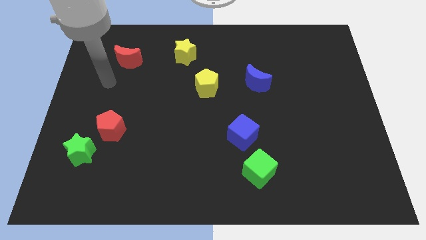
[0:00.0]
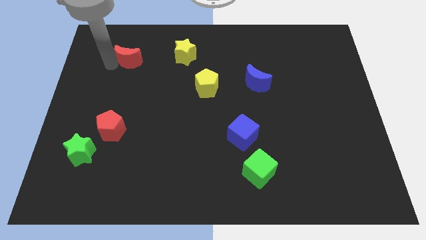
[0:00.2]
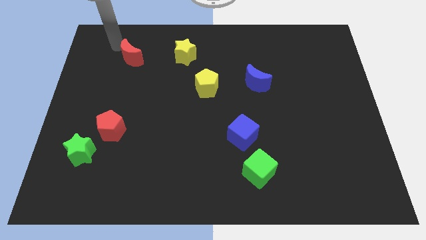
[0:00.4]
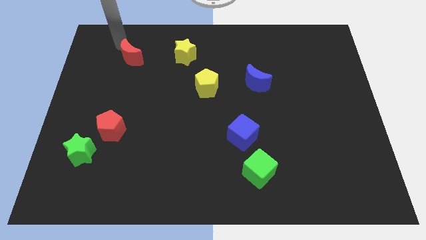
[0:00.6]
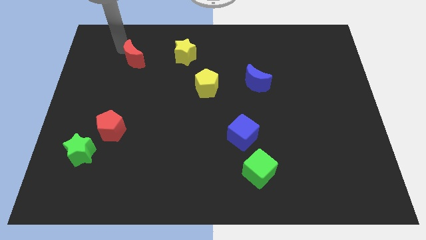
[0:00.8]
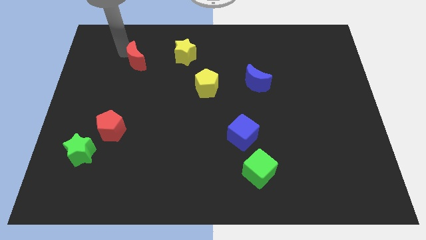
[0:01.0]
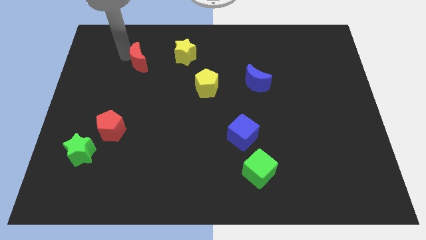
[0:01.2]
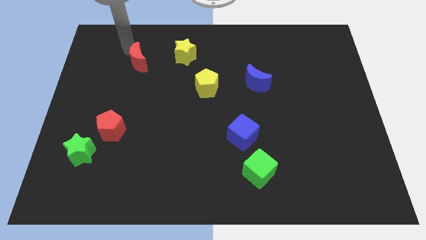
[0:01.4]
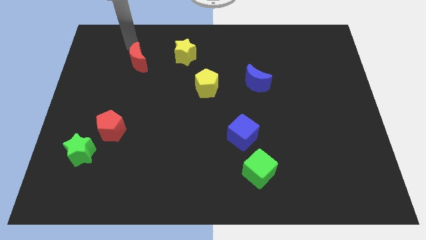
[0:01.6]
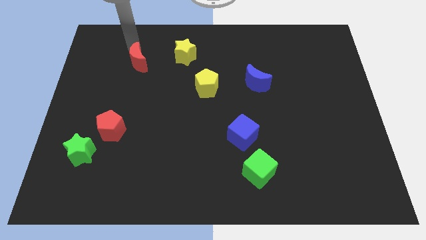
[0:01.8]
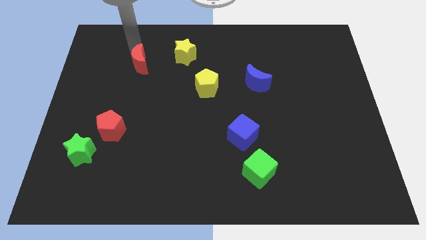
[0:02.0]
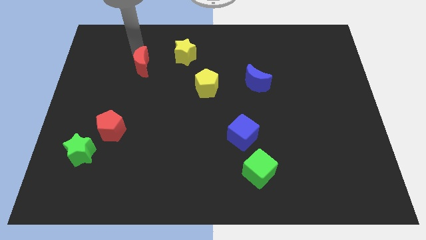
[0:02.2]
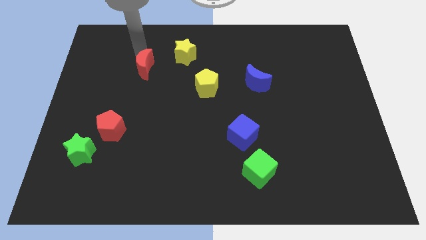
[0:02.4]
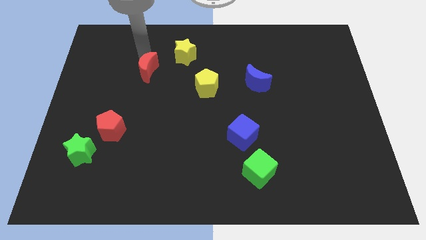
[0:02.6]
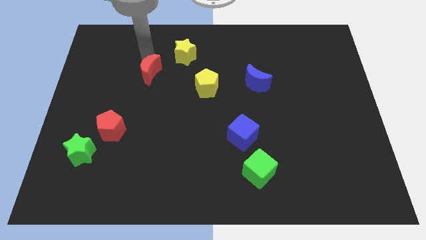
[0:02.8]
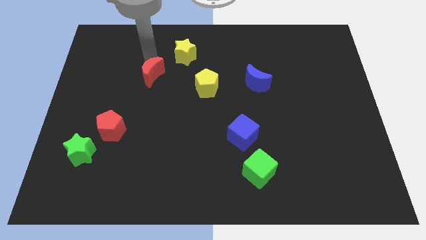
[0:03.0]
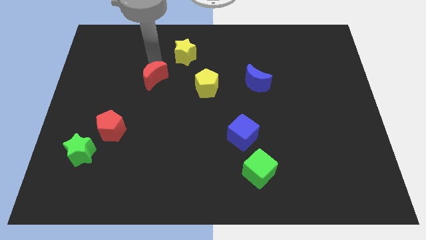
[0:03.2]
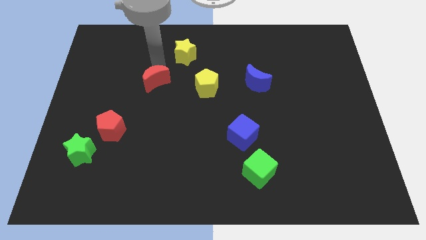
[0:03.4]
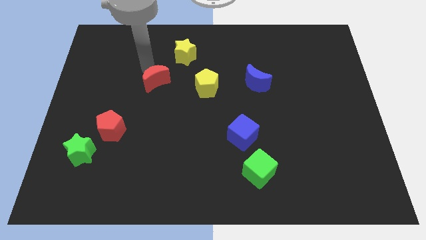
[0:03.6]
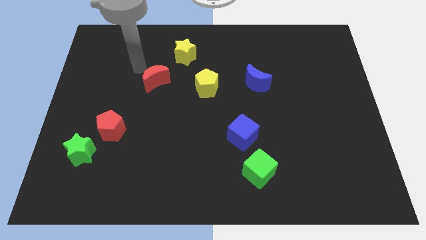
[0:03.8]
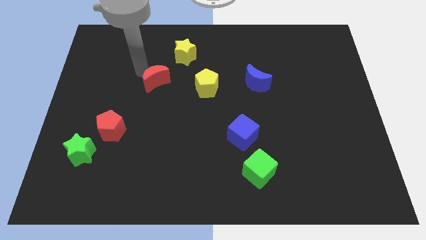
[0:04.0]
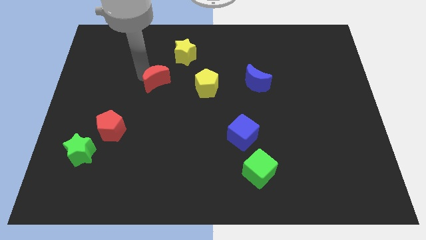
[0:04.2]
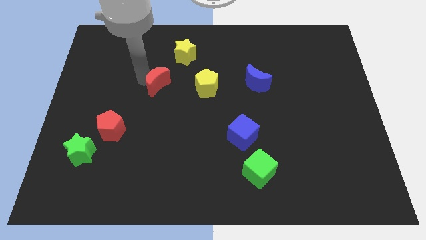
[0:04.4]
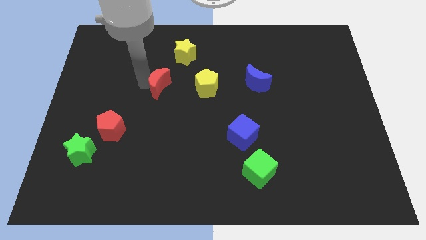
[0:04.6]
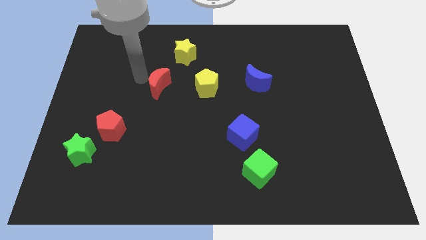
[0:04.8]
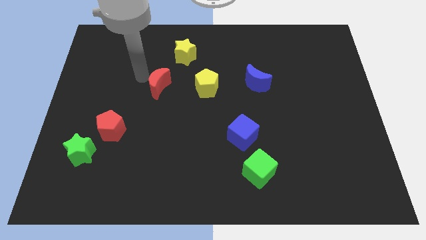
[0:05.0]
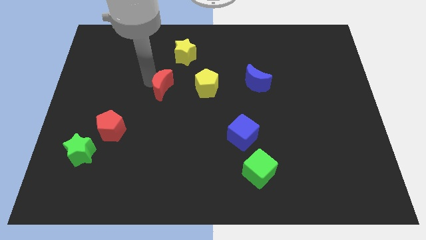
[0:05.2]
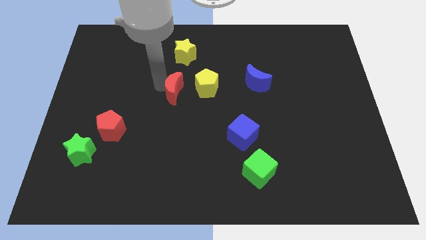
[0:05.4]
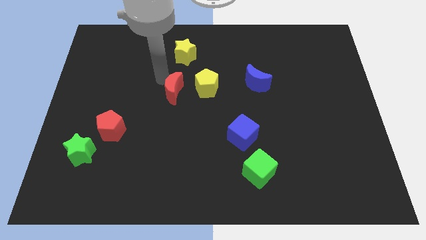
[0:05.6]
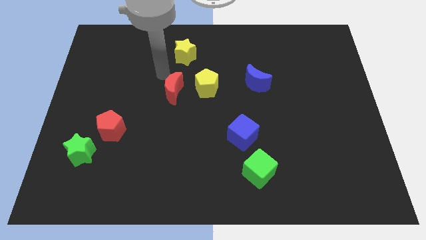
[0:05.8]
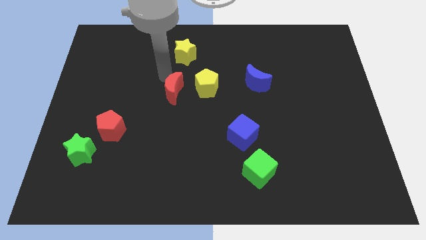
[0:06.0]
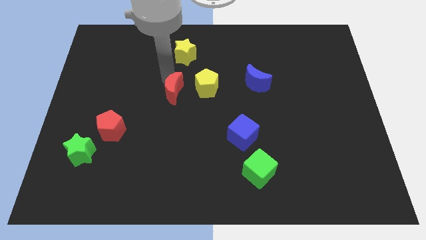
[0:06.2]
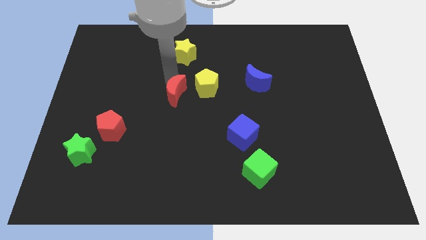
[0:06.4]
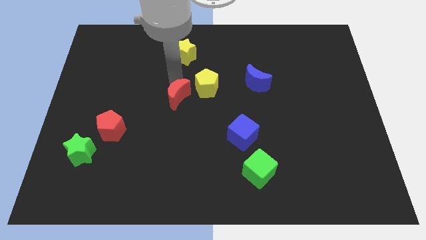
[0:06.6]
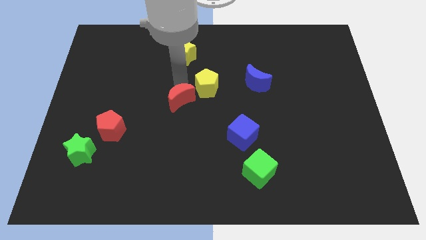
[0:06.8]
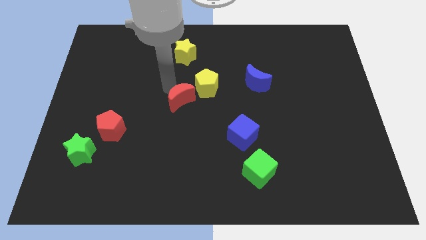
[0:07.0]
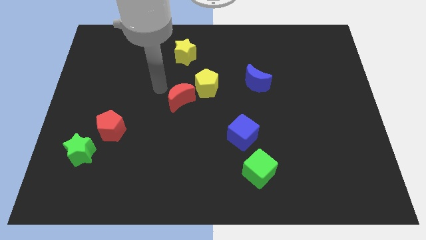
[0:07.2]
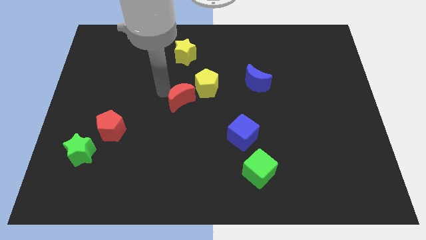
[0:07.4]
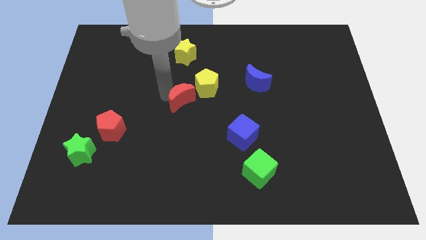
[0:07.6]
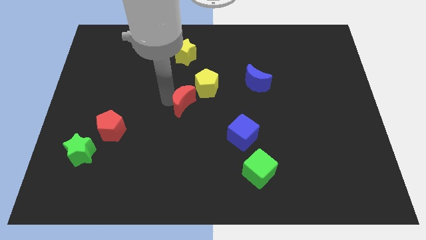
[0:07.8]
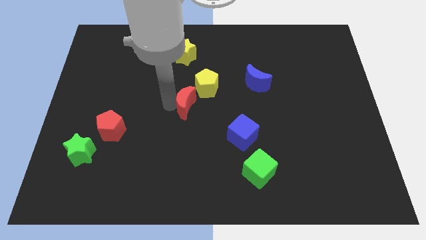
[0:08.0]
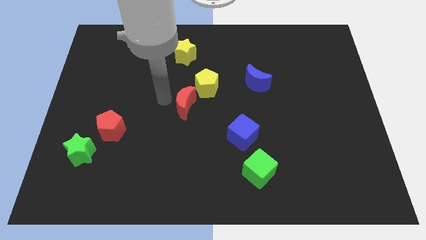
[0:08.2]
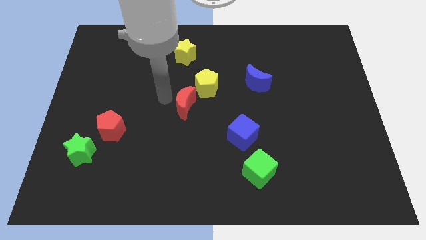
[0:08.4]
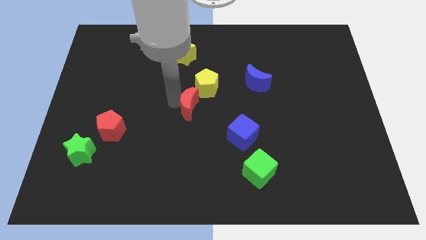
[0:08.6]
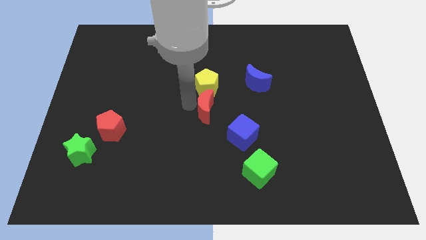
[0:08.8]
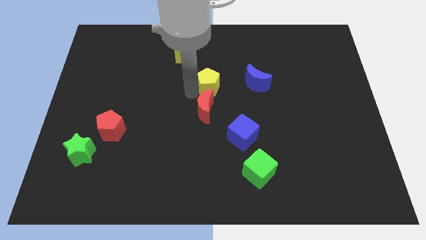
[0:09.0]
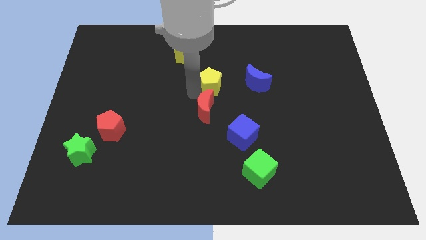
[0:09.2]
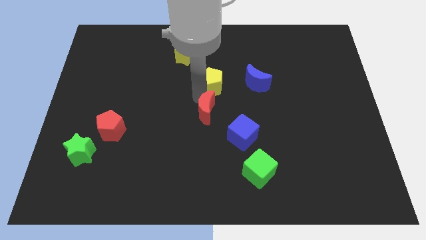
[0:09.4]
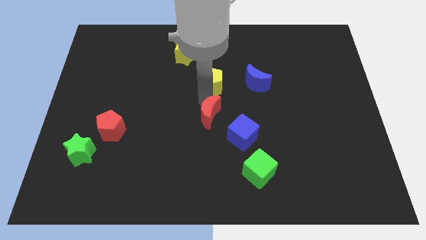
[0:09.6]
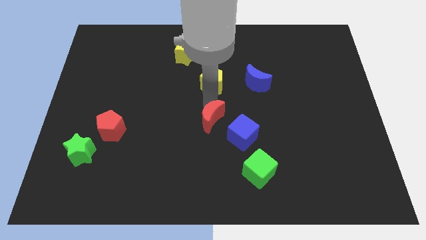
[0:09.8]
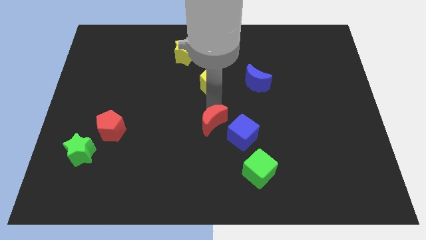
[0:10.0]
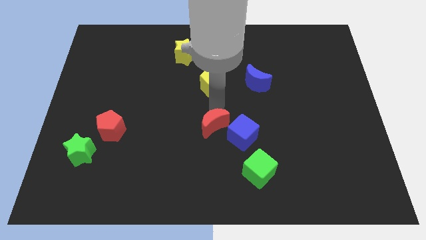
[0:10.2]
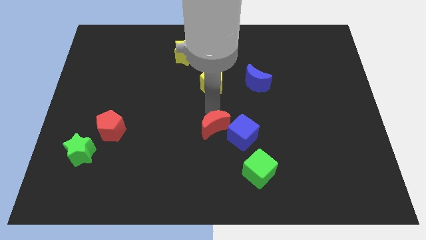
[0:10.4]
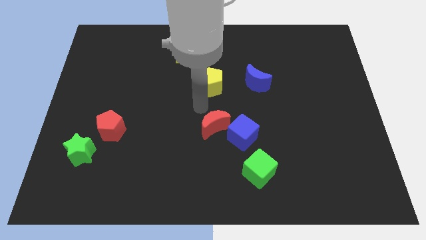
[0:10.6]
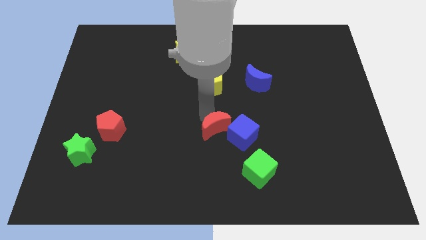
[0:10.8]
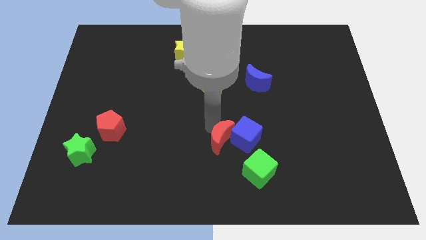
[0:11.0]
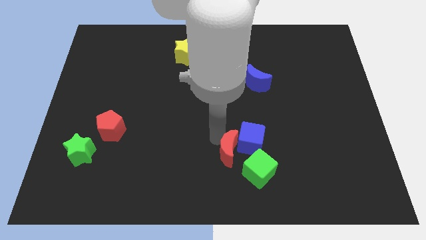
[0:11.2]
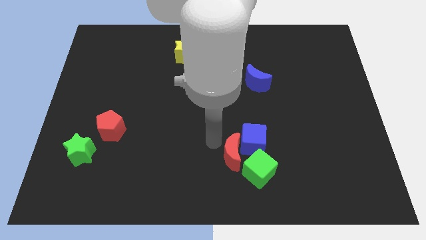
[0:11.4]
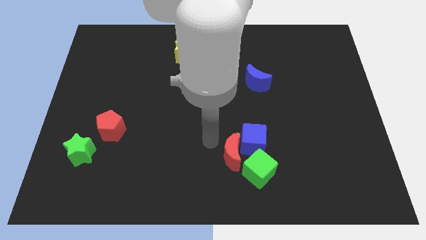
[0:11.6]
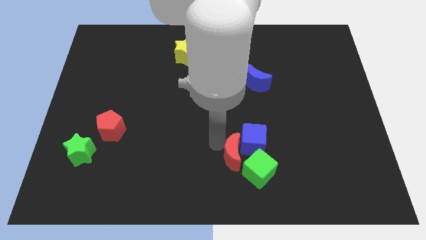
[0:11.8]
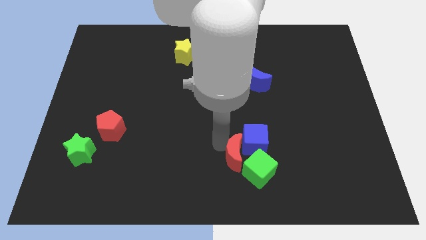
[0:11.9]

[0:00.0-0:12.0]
push the red moon to the green cube
